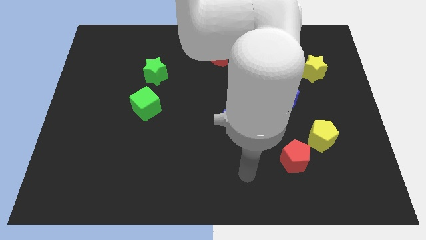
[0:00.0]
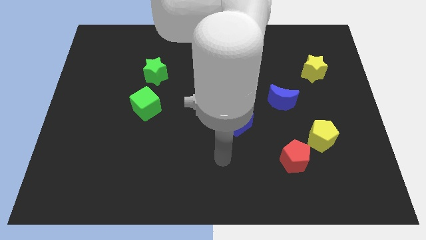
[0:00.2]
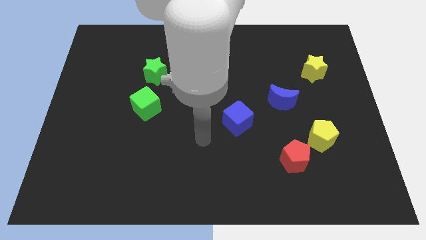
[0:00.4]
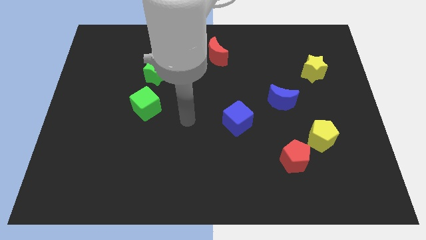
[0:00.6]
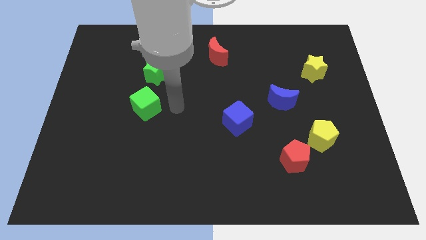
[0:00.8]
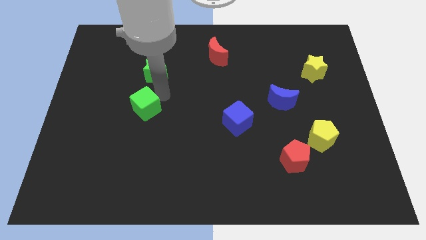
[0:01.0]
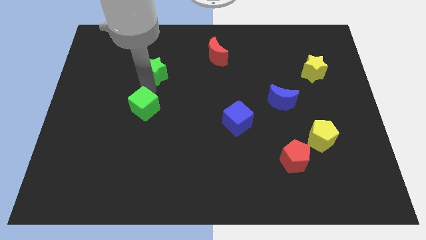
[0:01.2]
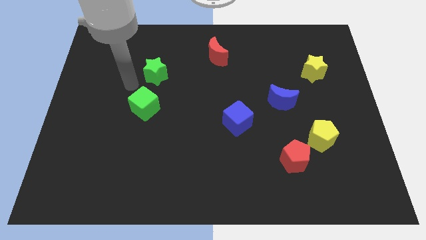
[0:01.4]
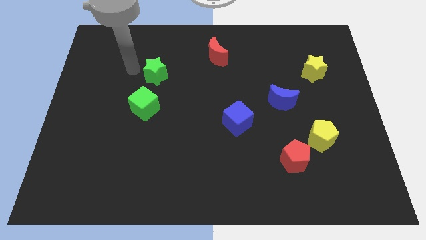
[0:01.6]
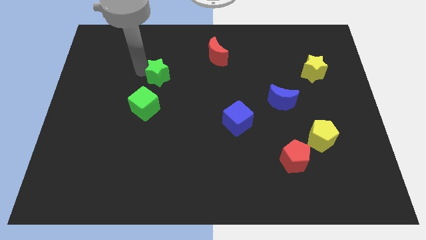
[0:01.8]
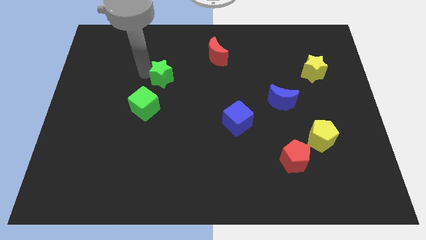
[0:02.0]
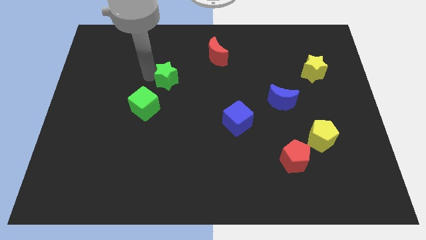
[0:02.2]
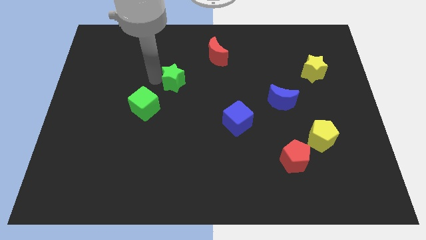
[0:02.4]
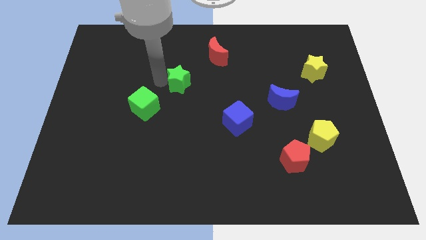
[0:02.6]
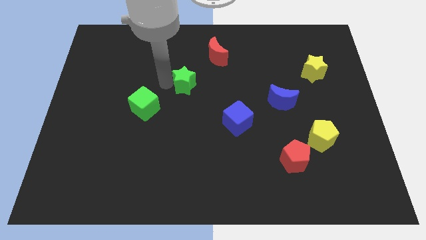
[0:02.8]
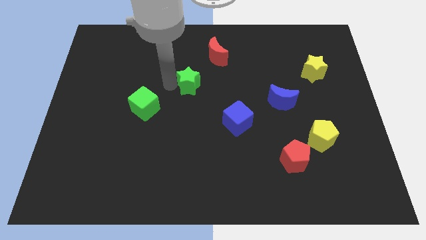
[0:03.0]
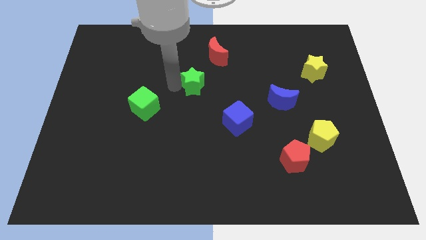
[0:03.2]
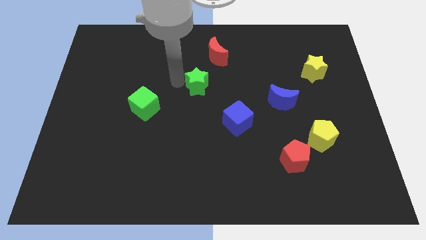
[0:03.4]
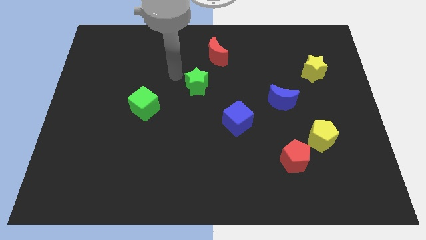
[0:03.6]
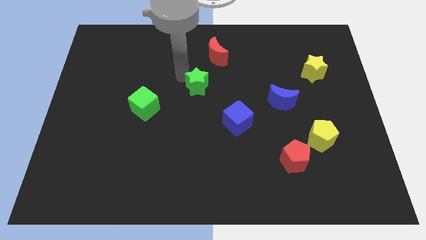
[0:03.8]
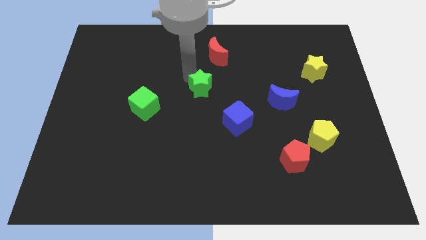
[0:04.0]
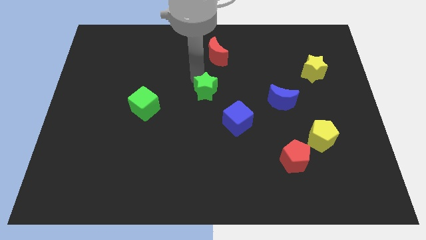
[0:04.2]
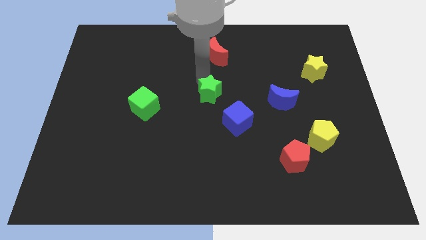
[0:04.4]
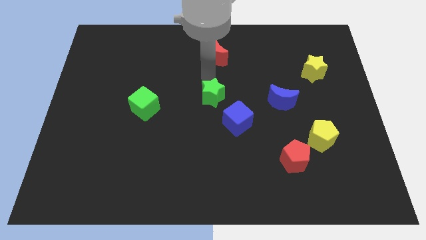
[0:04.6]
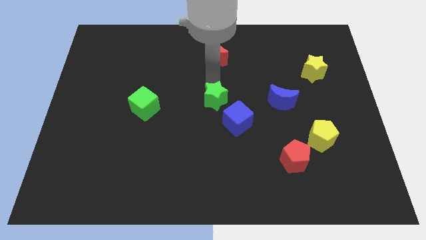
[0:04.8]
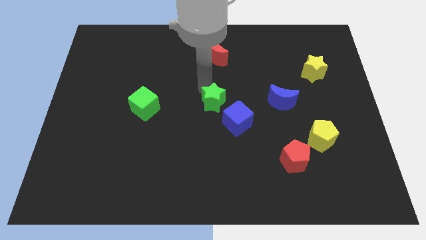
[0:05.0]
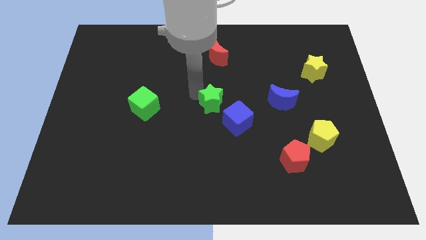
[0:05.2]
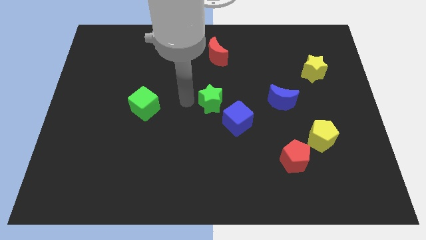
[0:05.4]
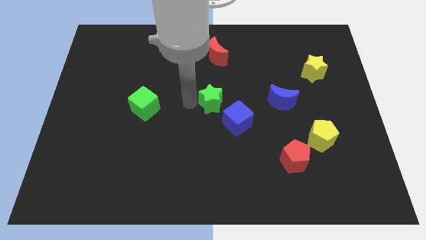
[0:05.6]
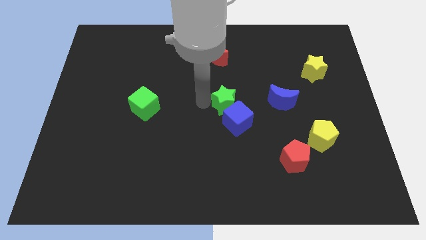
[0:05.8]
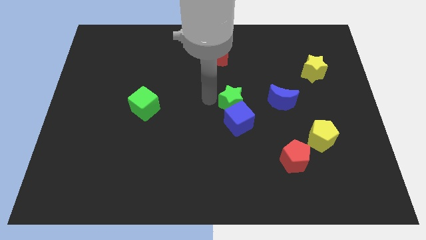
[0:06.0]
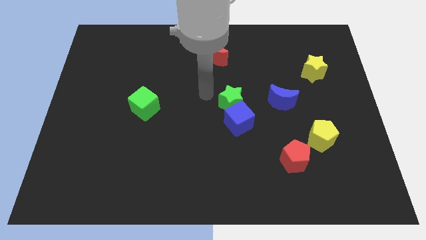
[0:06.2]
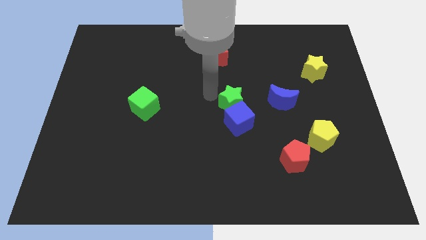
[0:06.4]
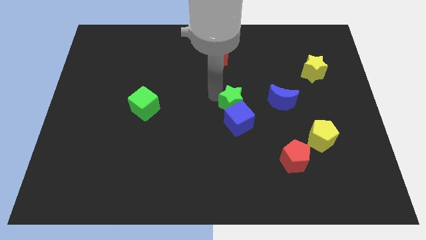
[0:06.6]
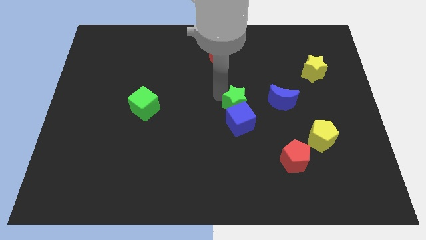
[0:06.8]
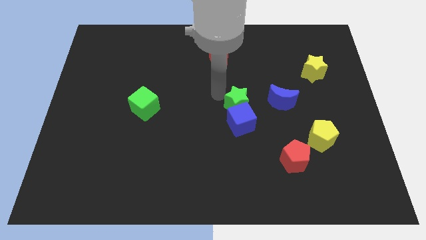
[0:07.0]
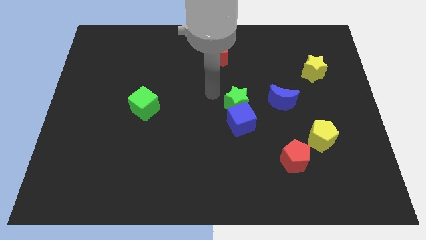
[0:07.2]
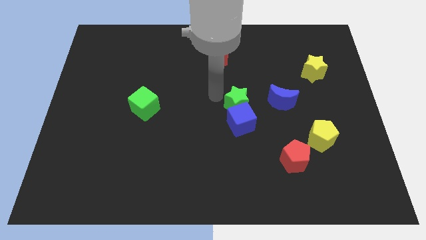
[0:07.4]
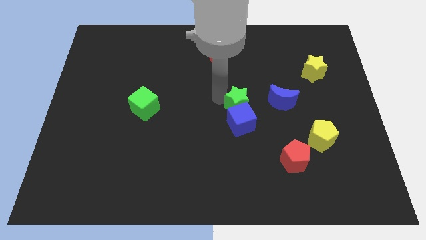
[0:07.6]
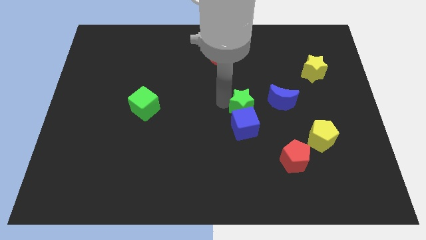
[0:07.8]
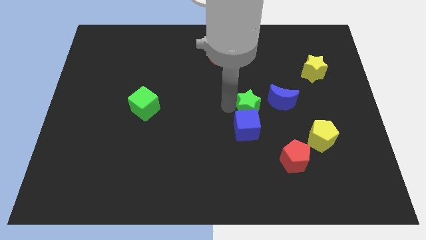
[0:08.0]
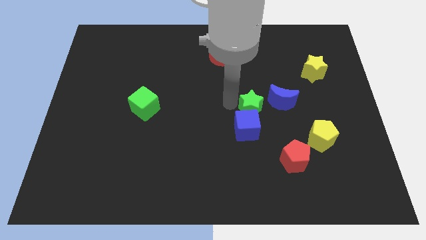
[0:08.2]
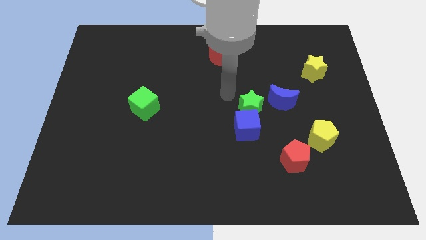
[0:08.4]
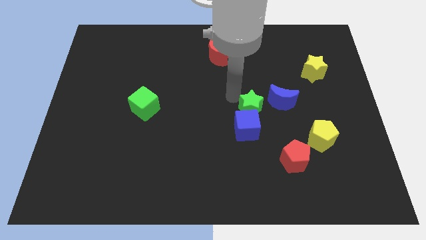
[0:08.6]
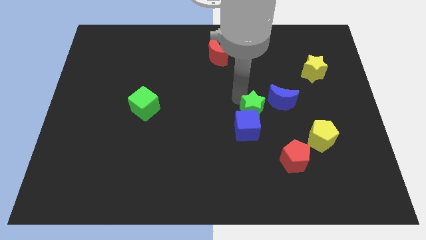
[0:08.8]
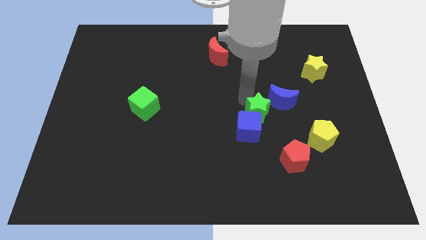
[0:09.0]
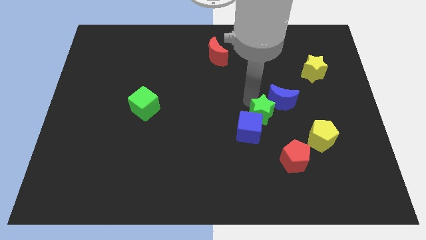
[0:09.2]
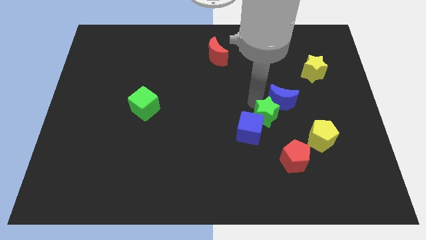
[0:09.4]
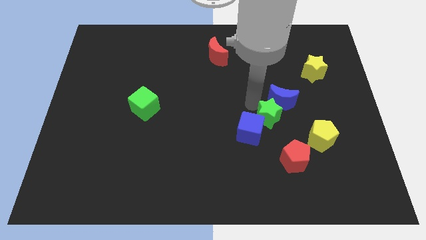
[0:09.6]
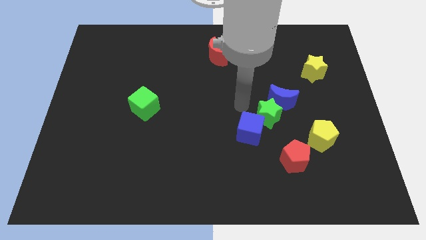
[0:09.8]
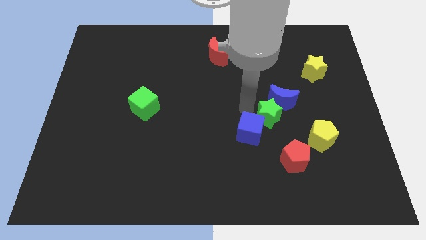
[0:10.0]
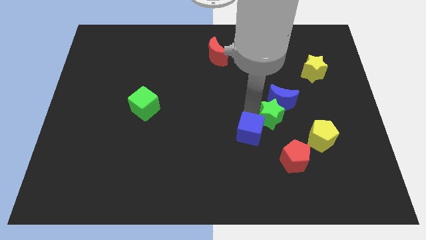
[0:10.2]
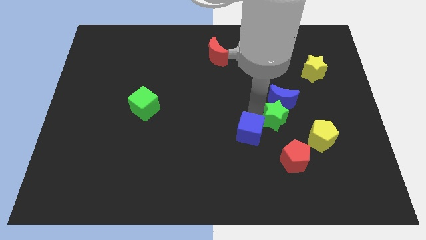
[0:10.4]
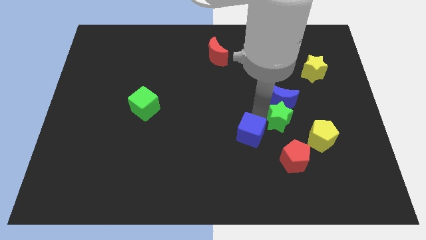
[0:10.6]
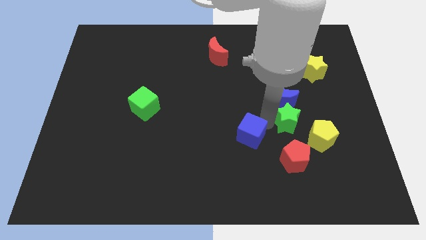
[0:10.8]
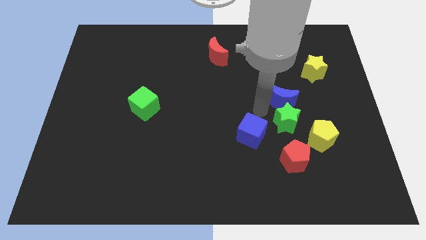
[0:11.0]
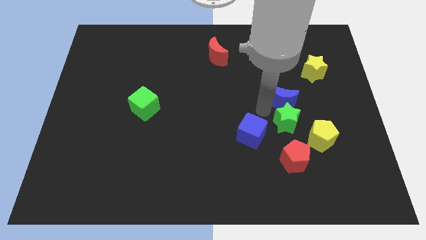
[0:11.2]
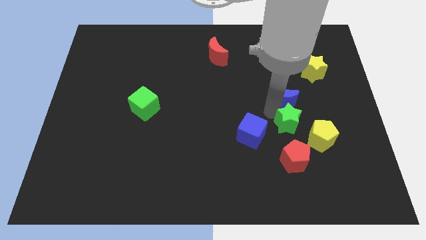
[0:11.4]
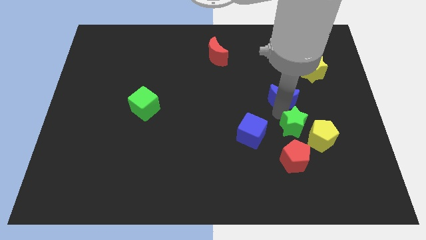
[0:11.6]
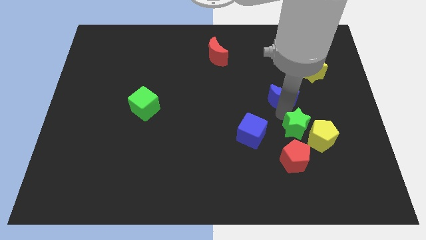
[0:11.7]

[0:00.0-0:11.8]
put the green star towards the yellow pentagon

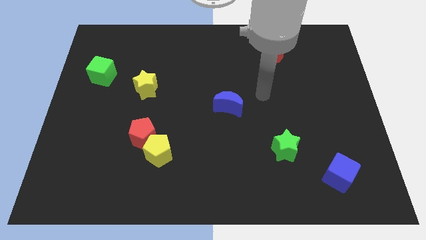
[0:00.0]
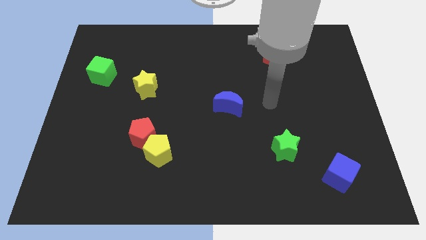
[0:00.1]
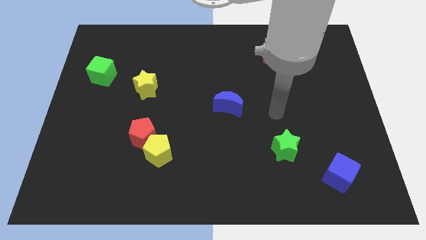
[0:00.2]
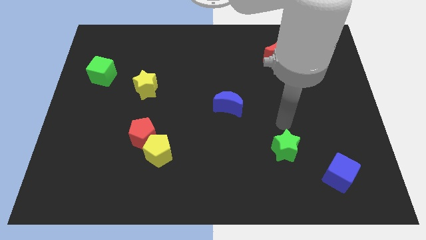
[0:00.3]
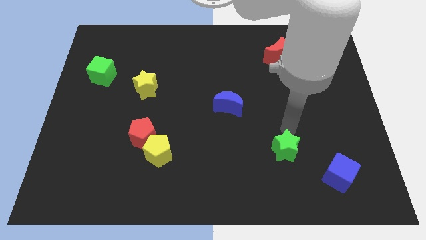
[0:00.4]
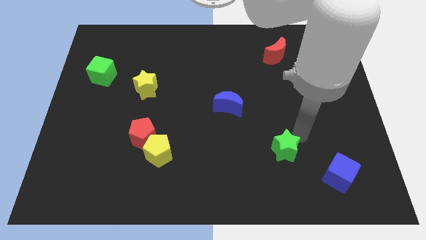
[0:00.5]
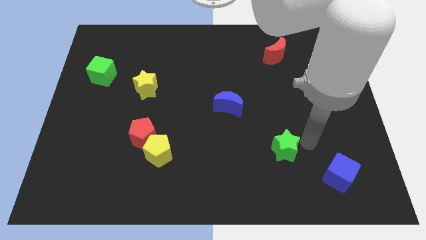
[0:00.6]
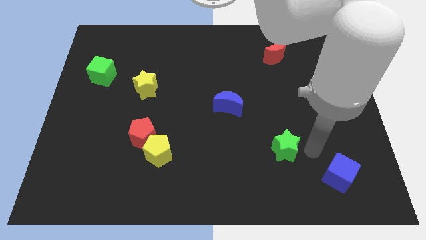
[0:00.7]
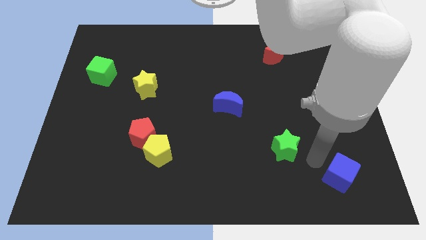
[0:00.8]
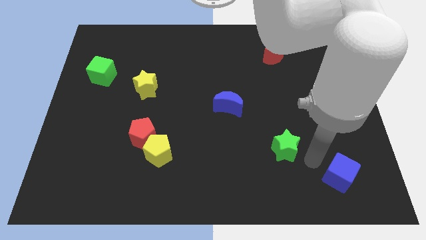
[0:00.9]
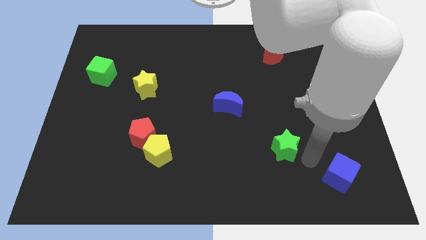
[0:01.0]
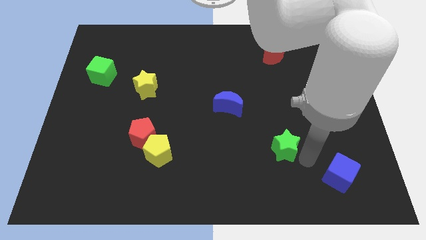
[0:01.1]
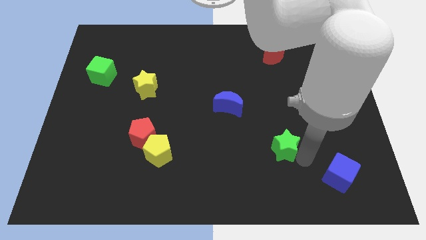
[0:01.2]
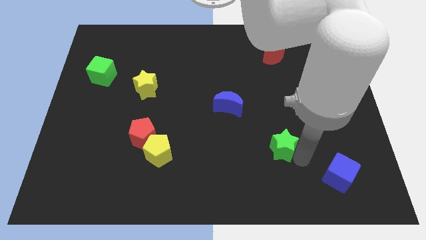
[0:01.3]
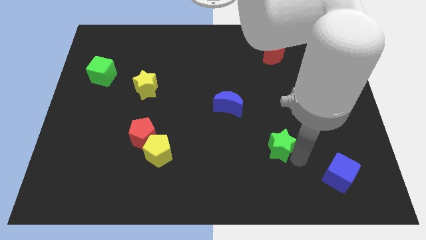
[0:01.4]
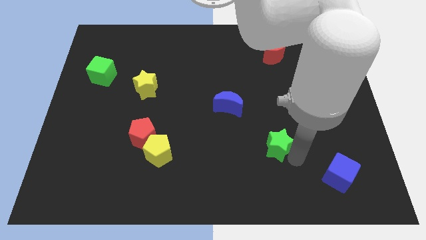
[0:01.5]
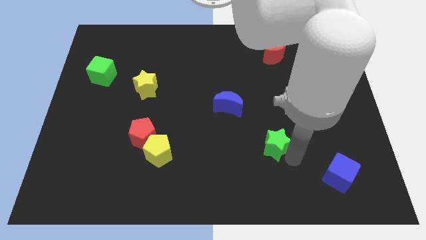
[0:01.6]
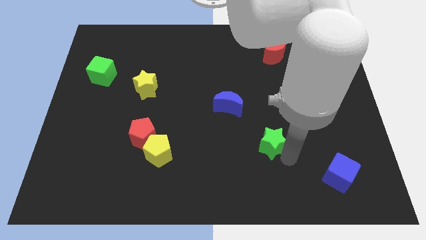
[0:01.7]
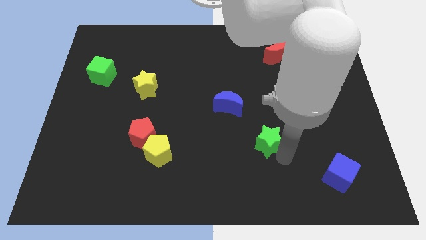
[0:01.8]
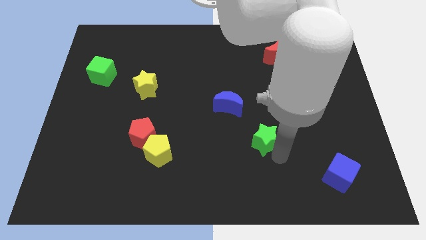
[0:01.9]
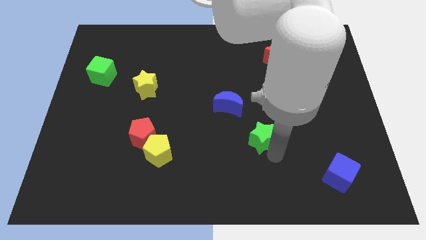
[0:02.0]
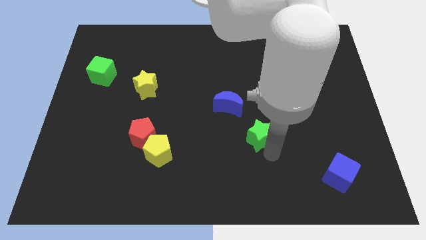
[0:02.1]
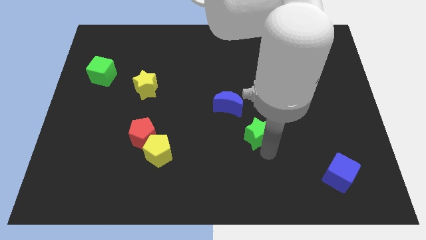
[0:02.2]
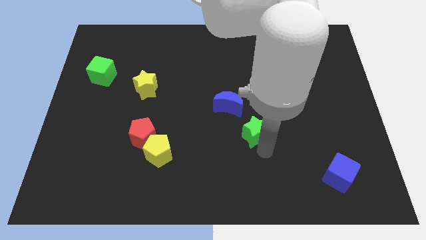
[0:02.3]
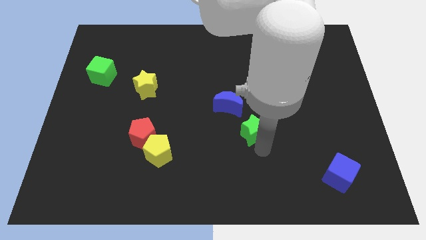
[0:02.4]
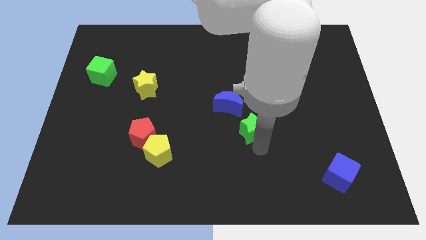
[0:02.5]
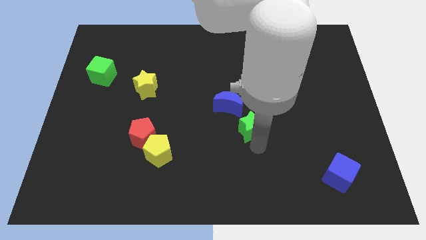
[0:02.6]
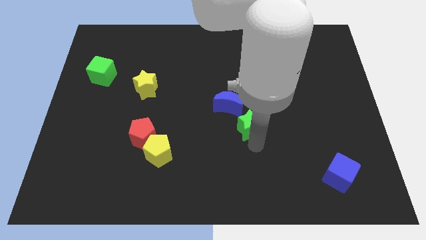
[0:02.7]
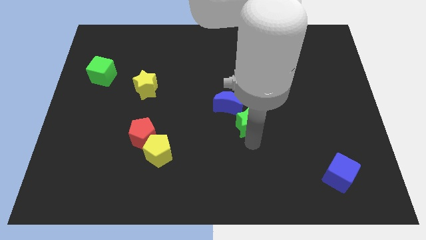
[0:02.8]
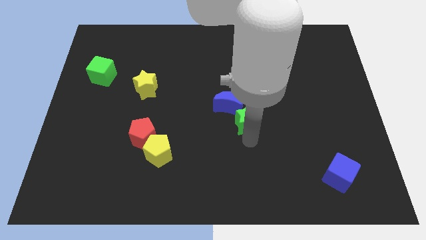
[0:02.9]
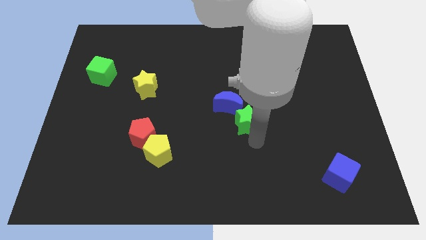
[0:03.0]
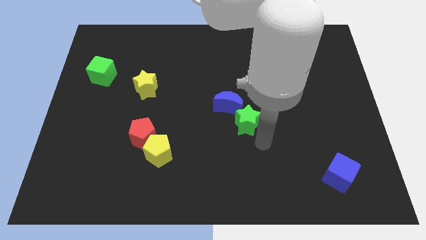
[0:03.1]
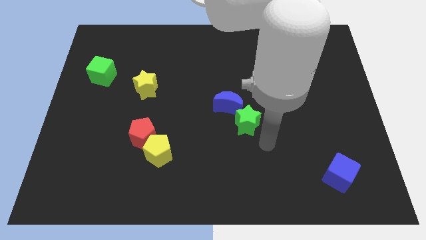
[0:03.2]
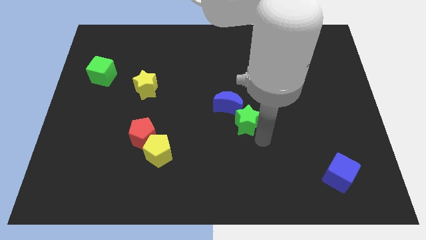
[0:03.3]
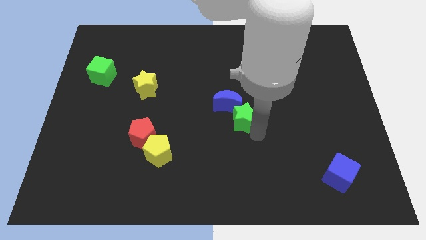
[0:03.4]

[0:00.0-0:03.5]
push the green star to the blue moon
